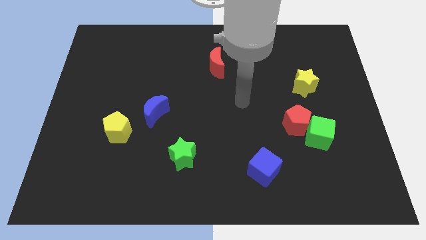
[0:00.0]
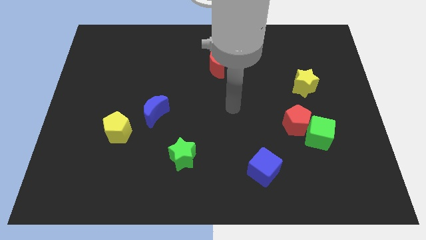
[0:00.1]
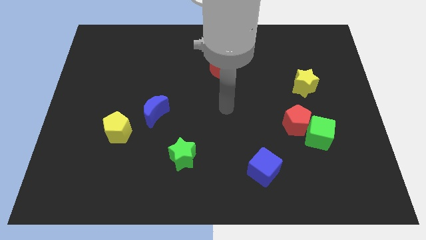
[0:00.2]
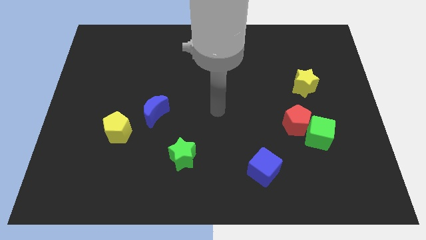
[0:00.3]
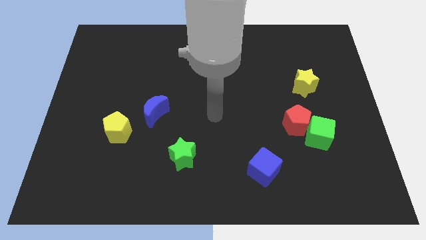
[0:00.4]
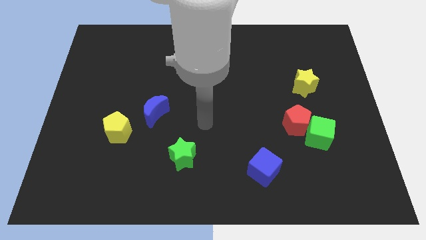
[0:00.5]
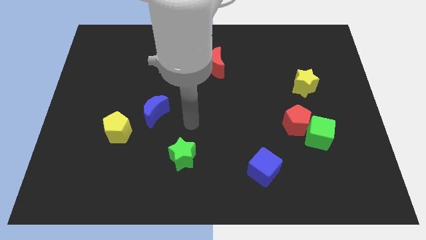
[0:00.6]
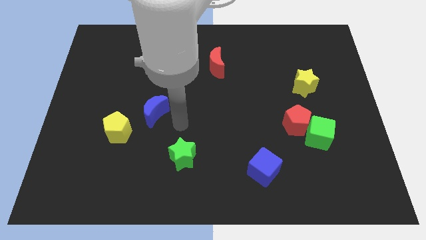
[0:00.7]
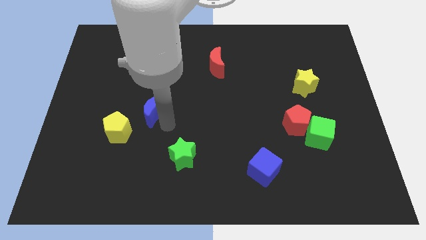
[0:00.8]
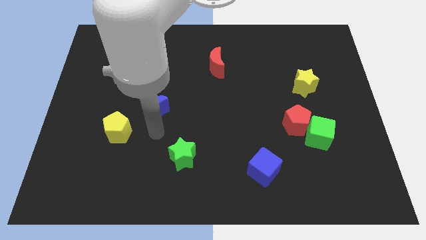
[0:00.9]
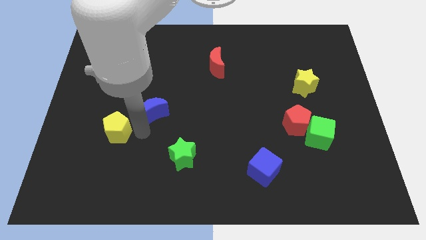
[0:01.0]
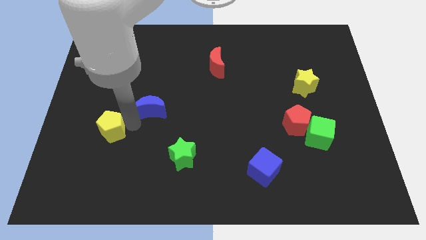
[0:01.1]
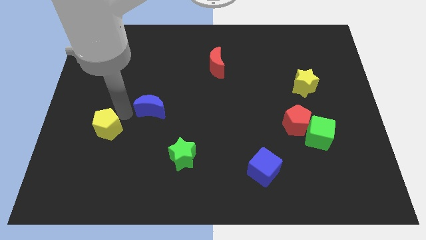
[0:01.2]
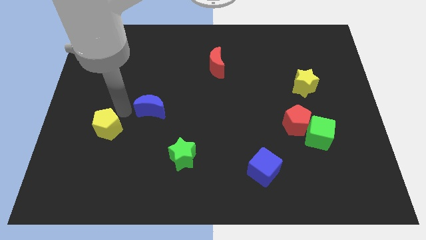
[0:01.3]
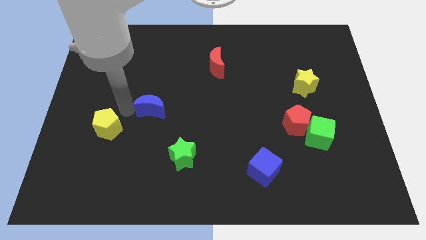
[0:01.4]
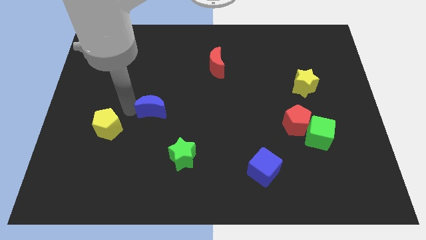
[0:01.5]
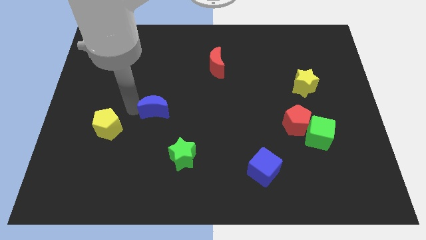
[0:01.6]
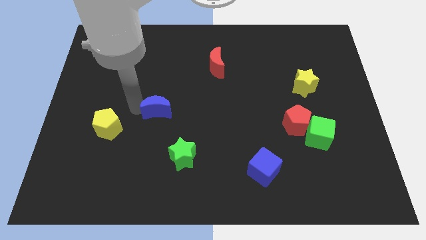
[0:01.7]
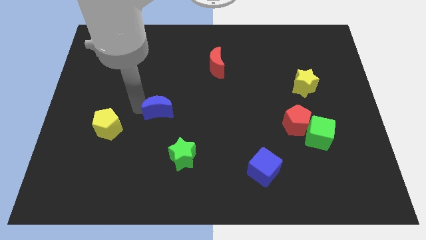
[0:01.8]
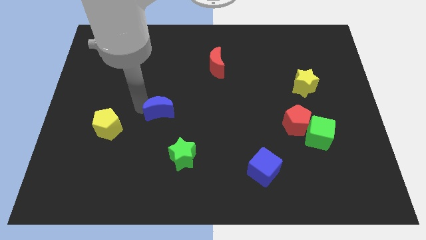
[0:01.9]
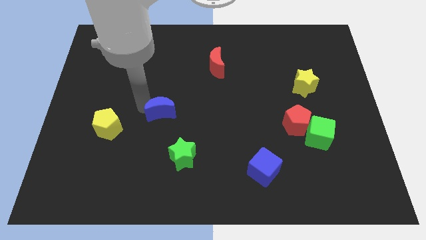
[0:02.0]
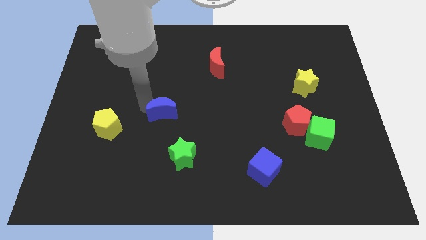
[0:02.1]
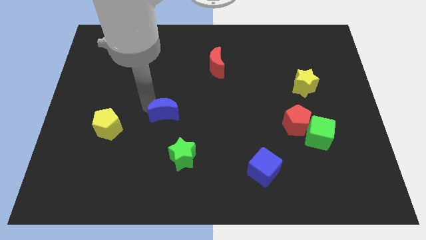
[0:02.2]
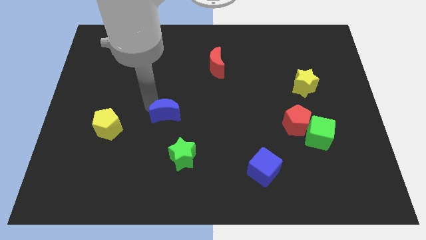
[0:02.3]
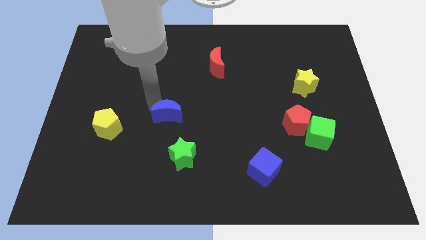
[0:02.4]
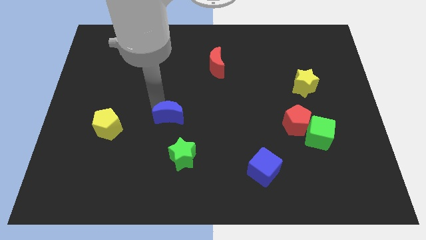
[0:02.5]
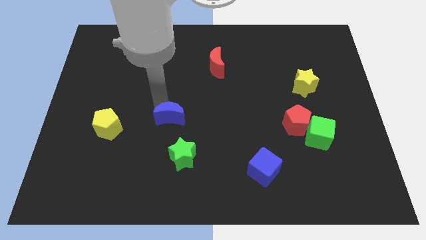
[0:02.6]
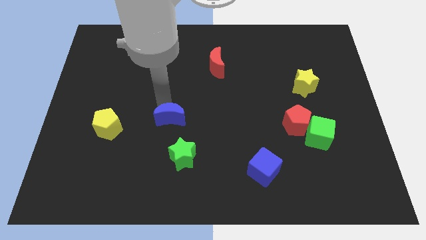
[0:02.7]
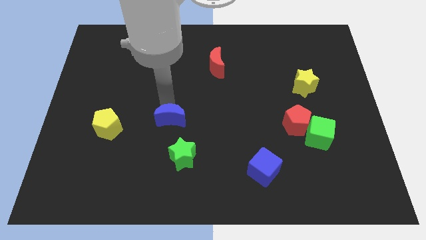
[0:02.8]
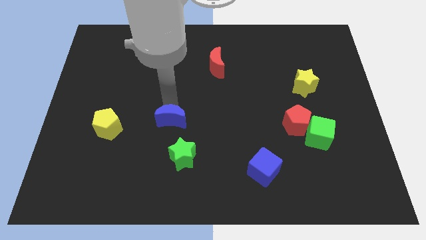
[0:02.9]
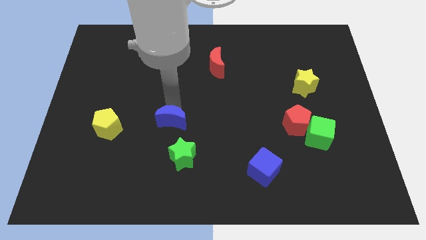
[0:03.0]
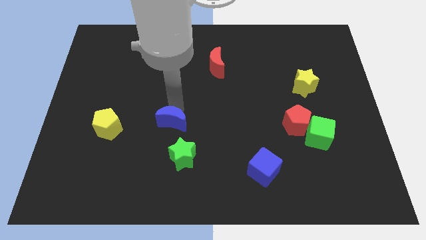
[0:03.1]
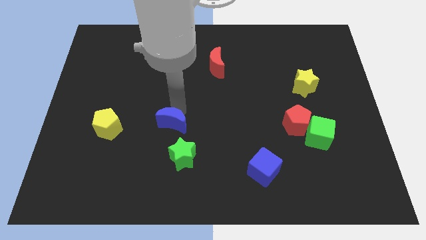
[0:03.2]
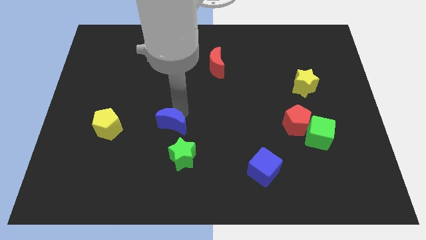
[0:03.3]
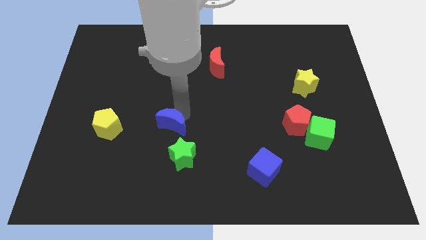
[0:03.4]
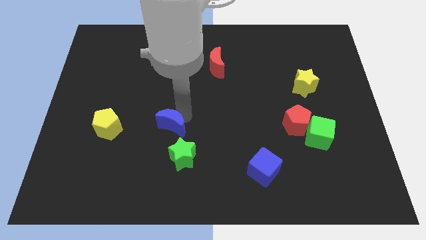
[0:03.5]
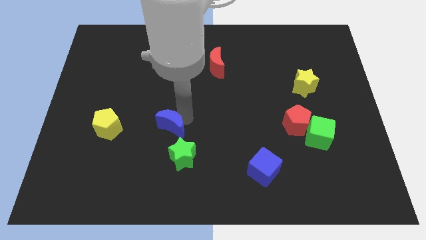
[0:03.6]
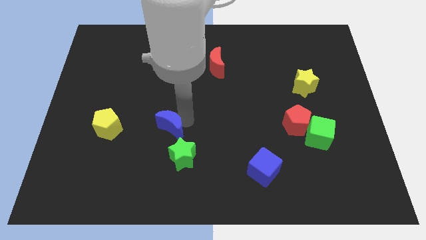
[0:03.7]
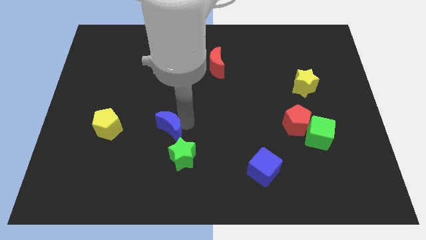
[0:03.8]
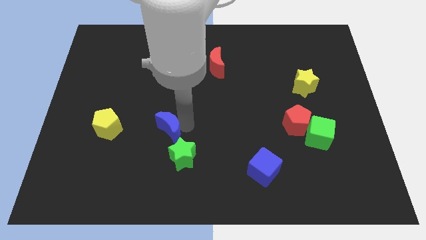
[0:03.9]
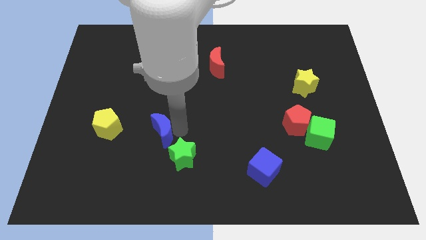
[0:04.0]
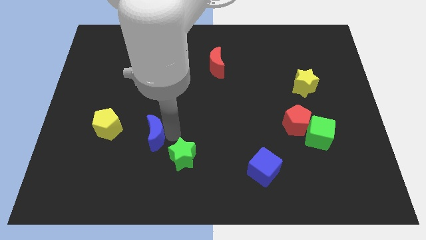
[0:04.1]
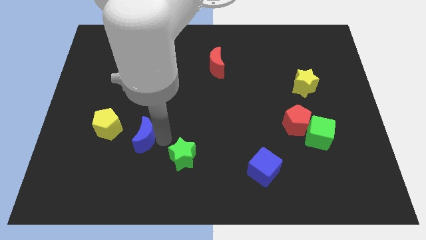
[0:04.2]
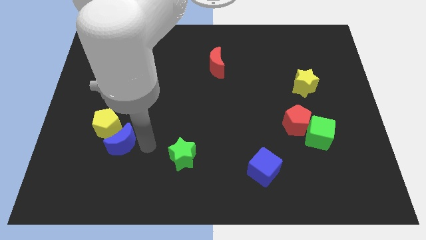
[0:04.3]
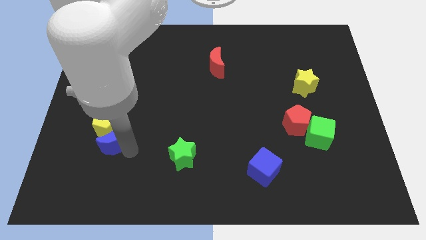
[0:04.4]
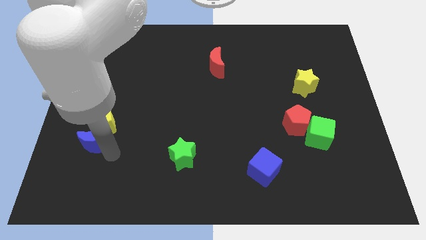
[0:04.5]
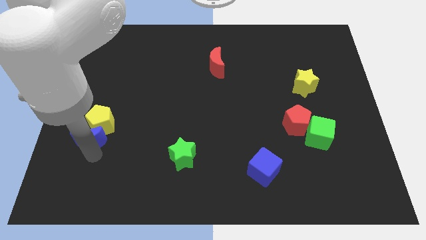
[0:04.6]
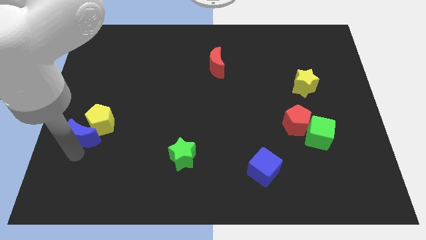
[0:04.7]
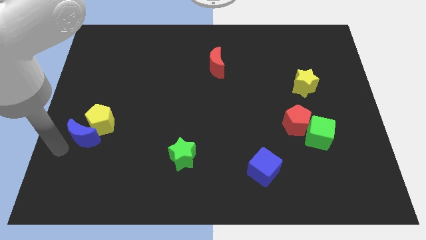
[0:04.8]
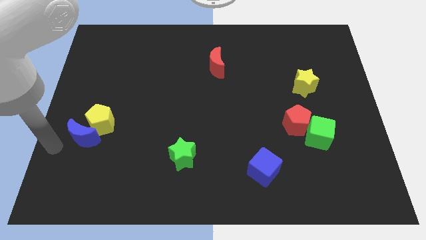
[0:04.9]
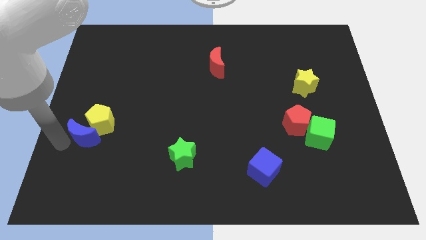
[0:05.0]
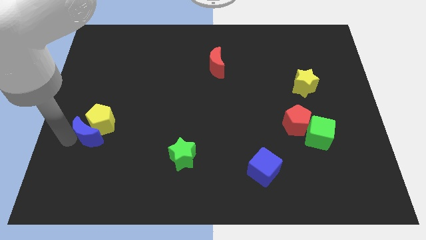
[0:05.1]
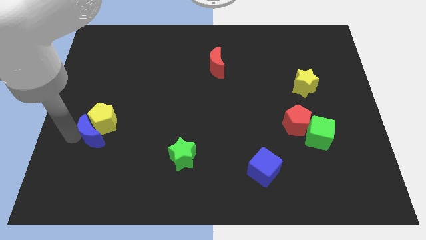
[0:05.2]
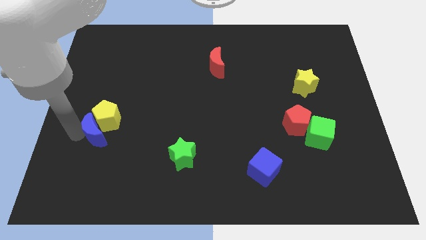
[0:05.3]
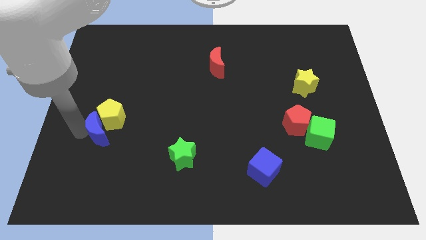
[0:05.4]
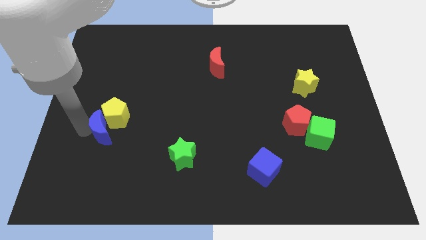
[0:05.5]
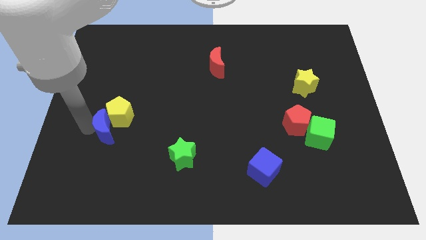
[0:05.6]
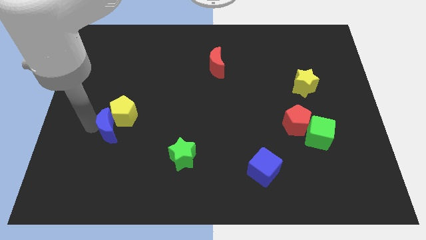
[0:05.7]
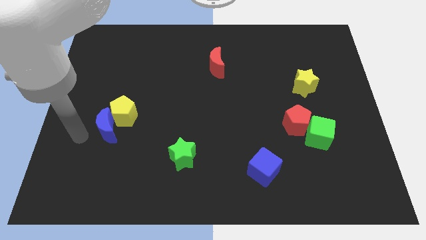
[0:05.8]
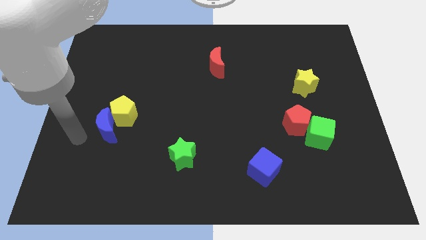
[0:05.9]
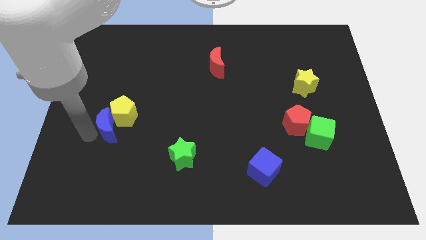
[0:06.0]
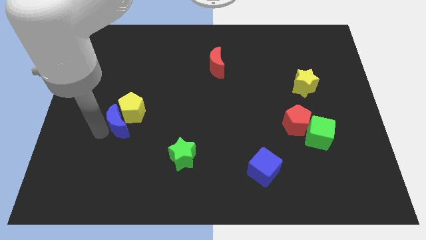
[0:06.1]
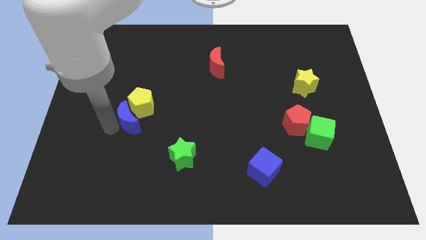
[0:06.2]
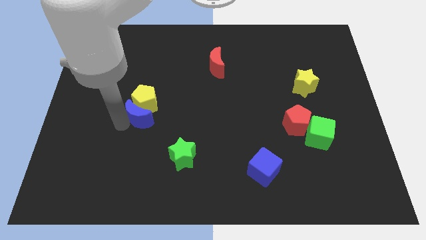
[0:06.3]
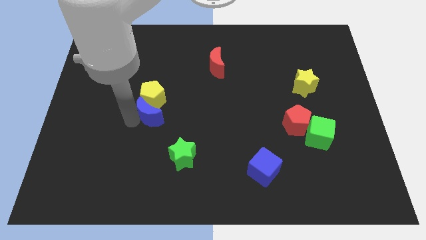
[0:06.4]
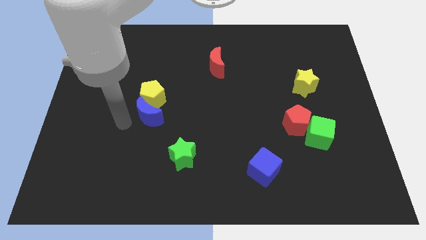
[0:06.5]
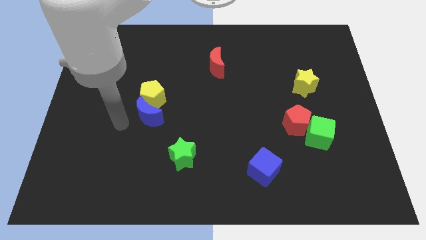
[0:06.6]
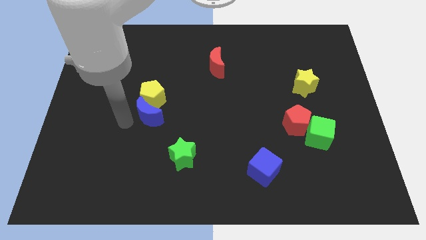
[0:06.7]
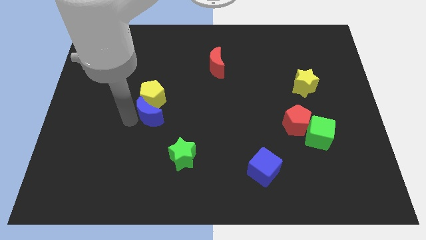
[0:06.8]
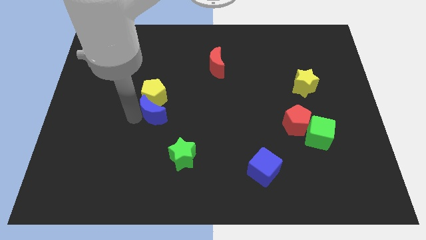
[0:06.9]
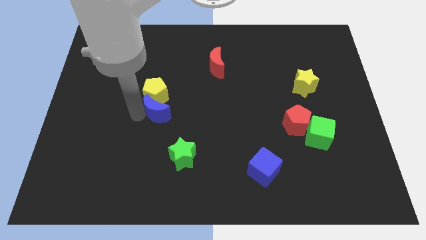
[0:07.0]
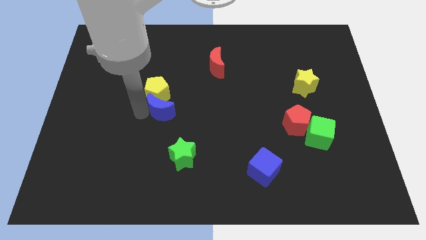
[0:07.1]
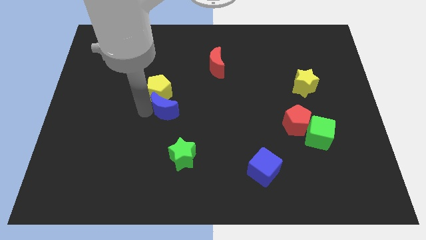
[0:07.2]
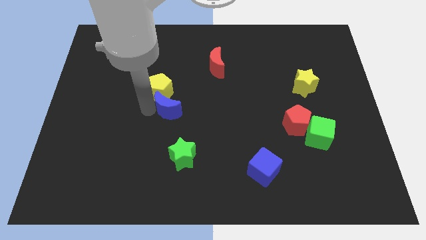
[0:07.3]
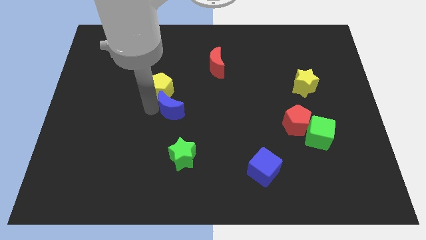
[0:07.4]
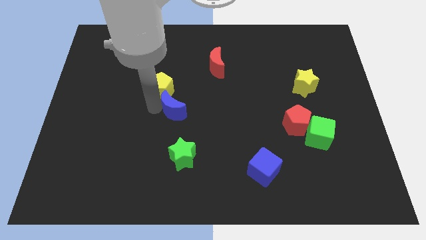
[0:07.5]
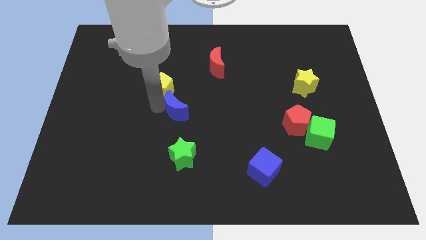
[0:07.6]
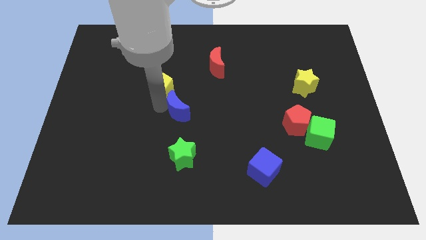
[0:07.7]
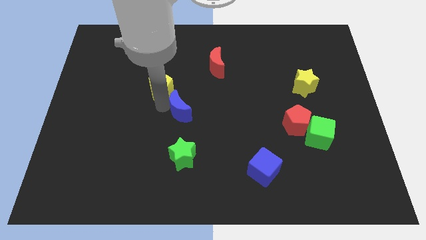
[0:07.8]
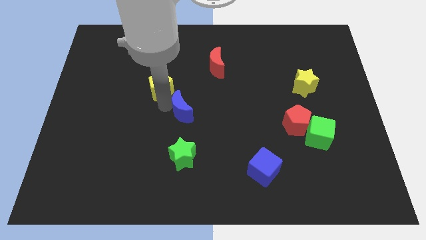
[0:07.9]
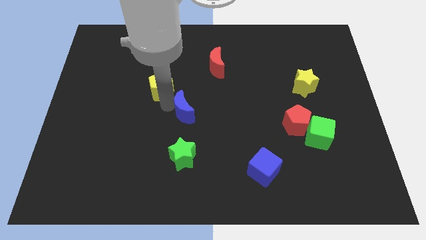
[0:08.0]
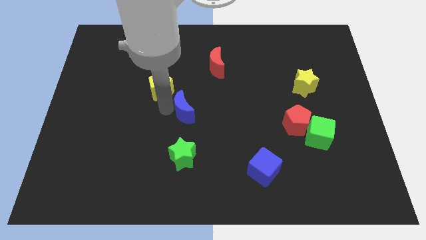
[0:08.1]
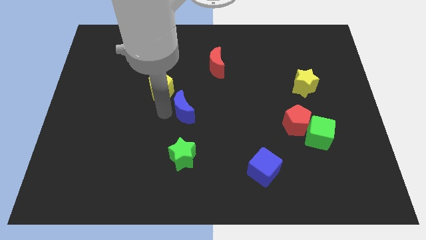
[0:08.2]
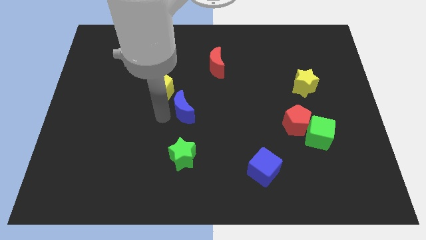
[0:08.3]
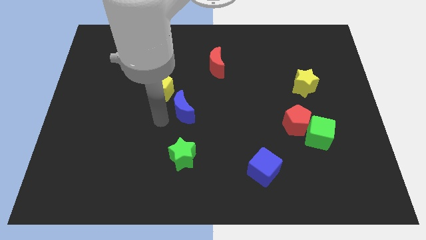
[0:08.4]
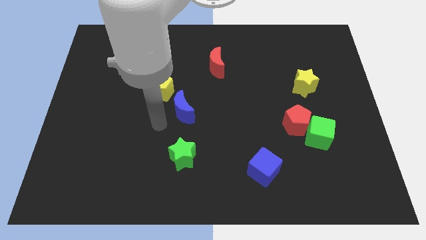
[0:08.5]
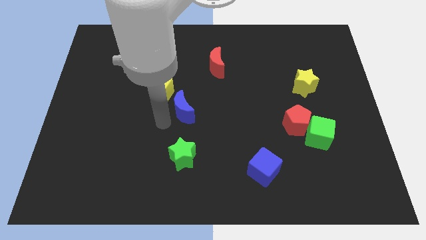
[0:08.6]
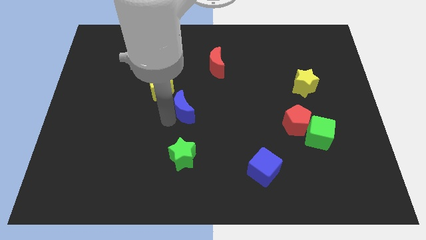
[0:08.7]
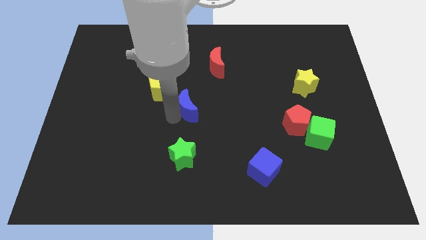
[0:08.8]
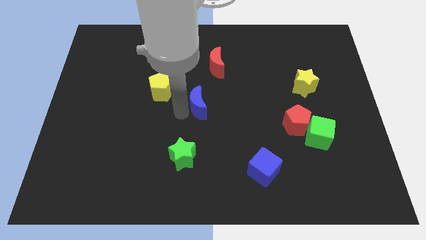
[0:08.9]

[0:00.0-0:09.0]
slide the blue moon below the red moon
